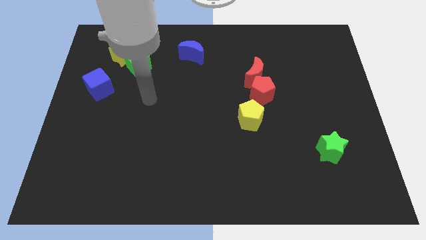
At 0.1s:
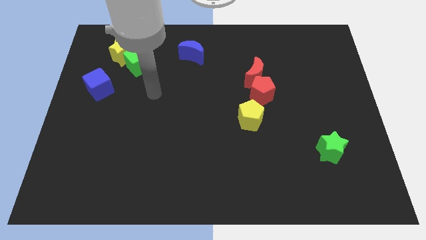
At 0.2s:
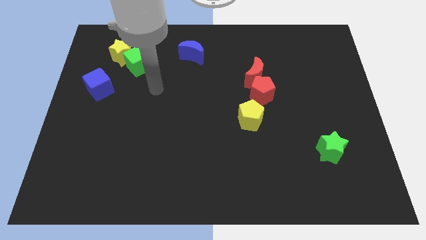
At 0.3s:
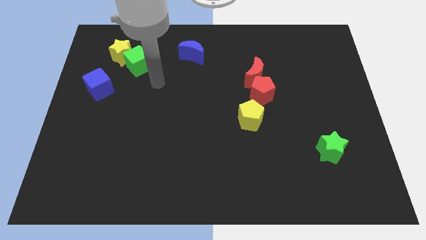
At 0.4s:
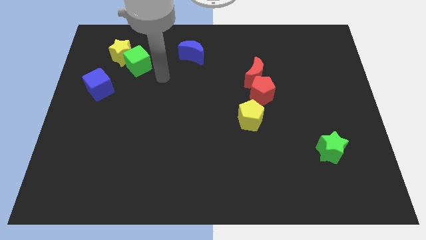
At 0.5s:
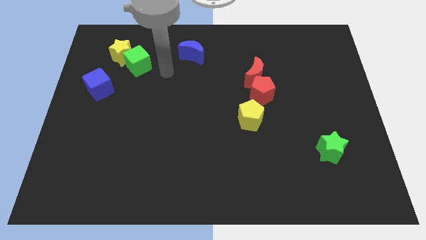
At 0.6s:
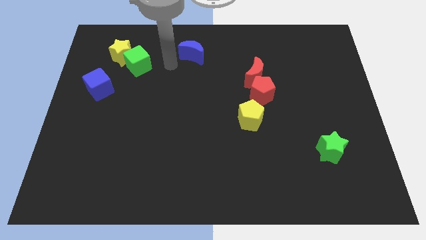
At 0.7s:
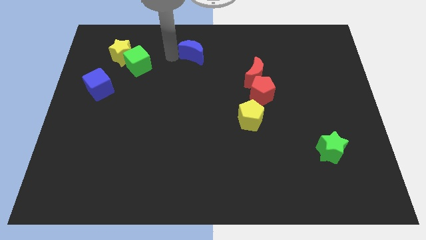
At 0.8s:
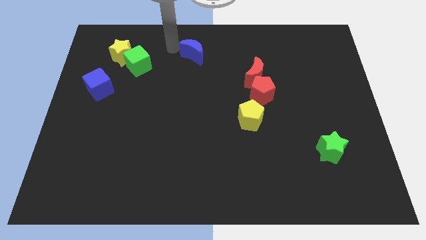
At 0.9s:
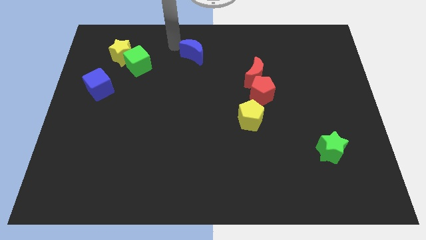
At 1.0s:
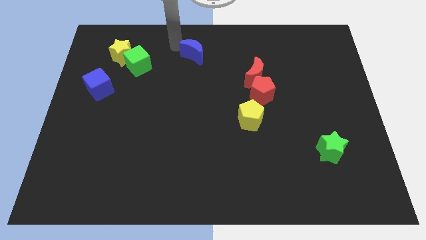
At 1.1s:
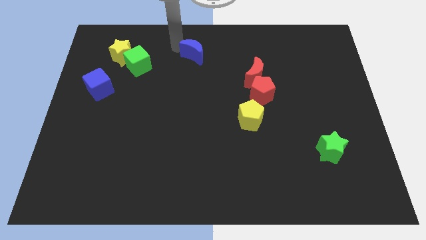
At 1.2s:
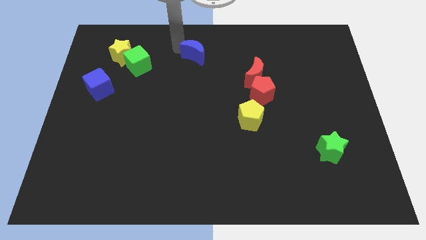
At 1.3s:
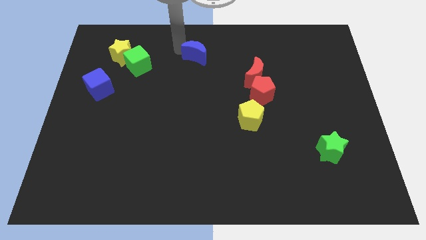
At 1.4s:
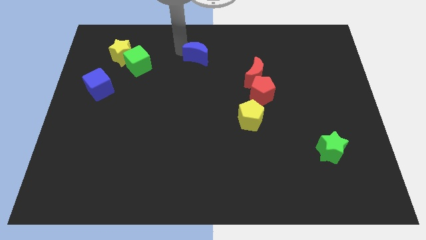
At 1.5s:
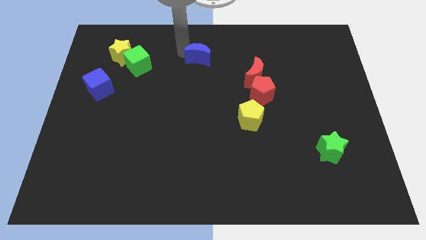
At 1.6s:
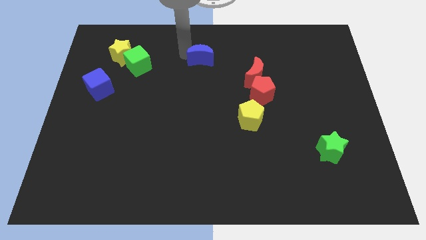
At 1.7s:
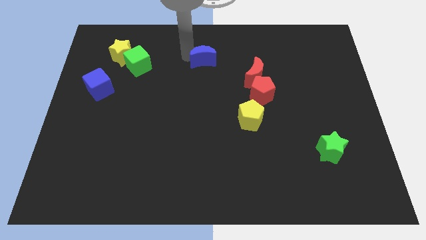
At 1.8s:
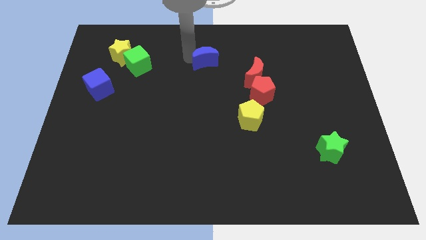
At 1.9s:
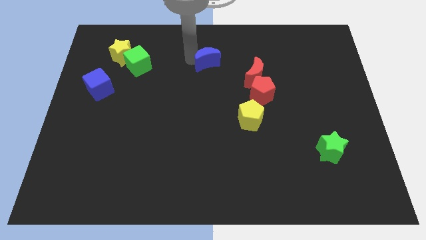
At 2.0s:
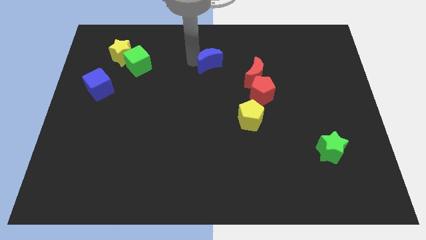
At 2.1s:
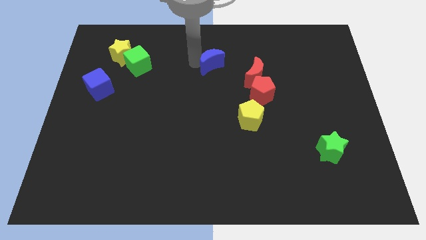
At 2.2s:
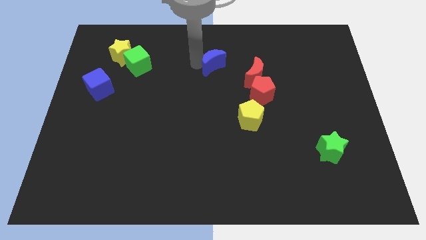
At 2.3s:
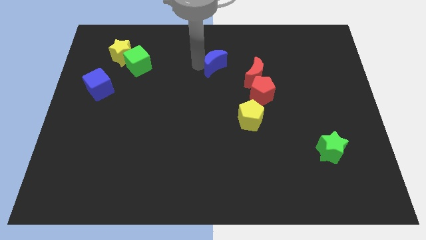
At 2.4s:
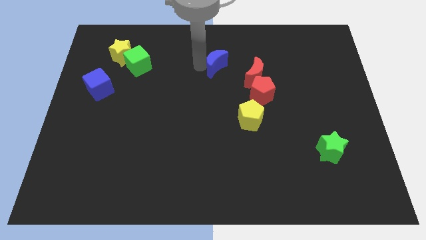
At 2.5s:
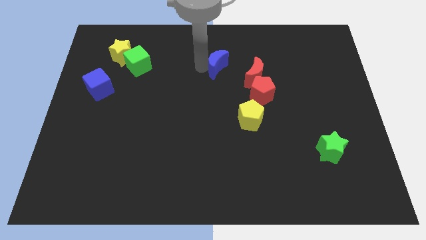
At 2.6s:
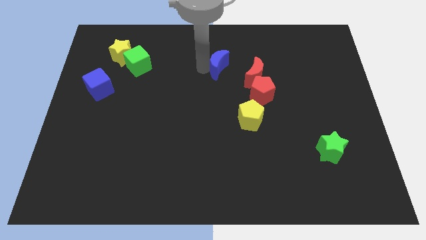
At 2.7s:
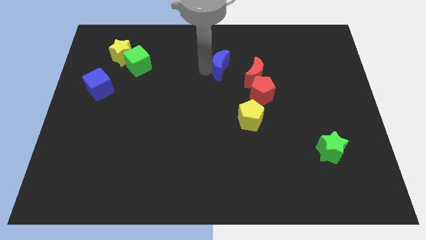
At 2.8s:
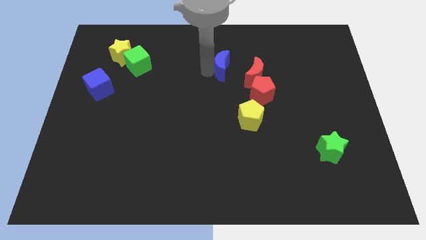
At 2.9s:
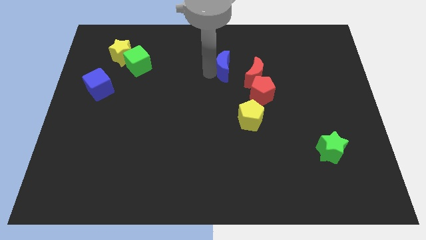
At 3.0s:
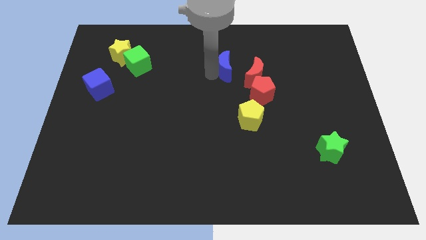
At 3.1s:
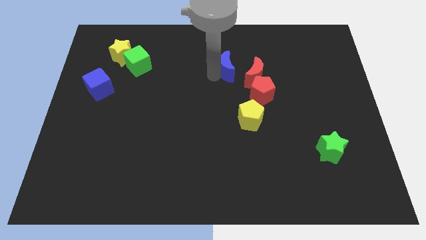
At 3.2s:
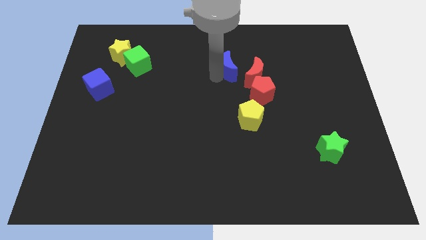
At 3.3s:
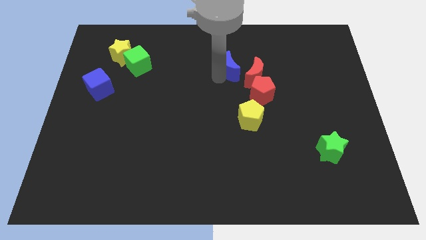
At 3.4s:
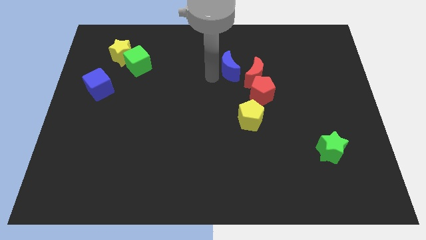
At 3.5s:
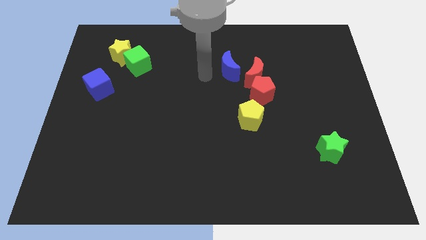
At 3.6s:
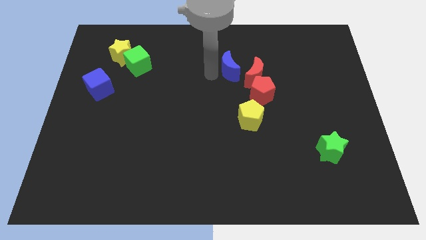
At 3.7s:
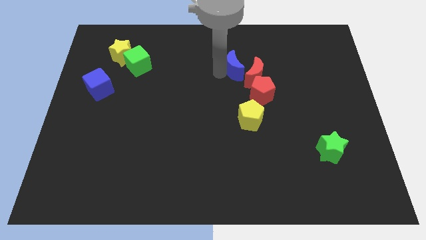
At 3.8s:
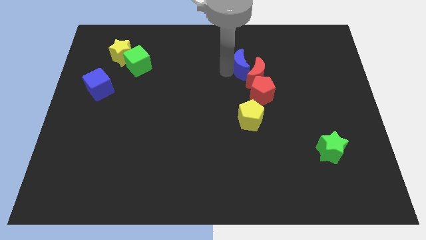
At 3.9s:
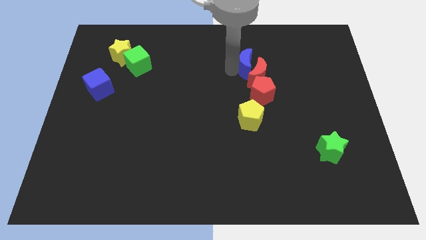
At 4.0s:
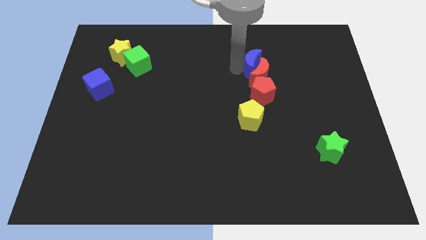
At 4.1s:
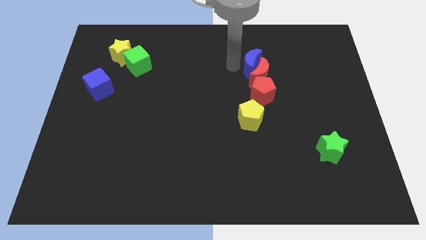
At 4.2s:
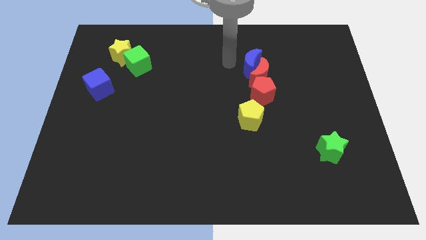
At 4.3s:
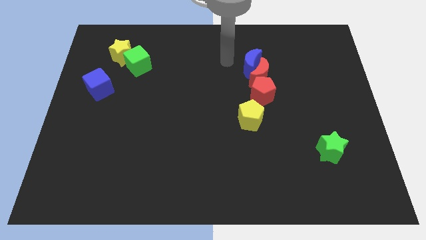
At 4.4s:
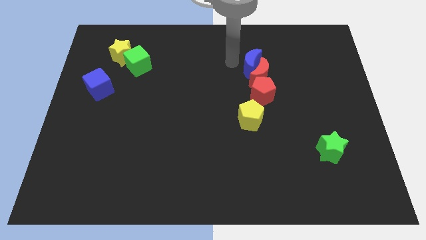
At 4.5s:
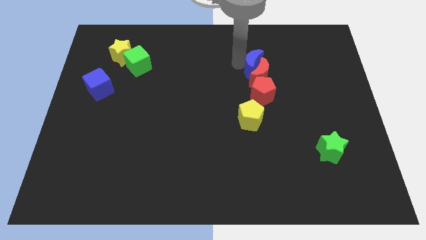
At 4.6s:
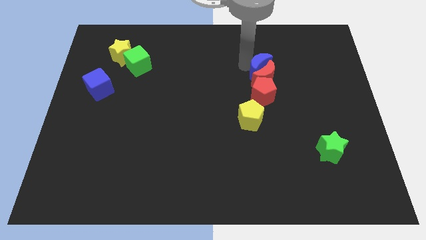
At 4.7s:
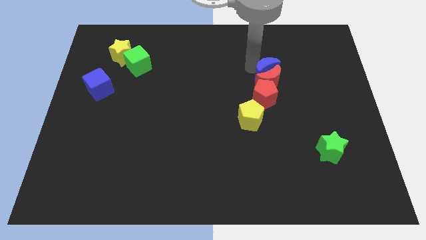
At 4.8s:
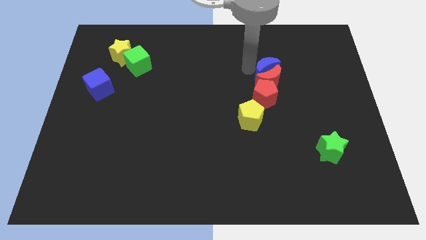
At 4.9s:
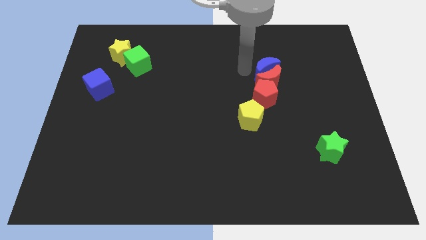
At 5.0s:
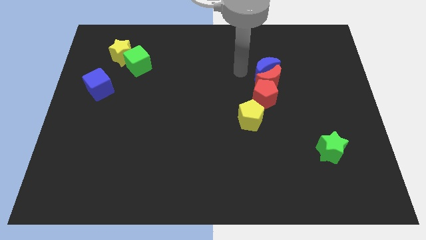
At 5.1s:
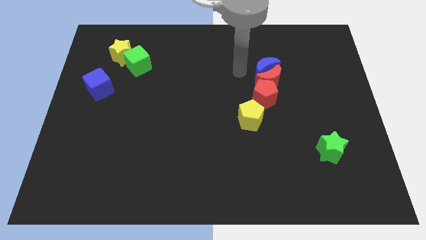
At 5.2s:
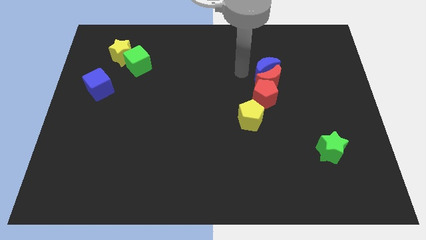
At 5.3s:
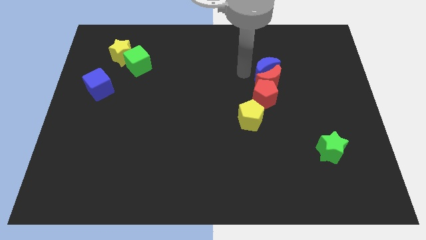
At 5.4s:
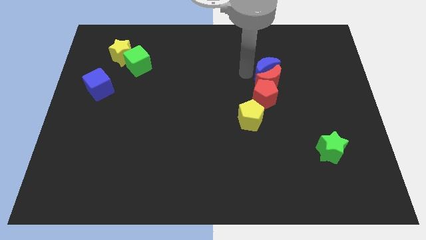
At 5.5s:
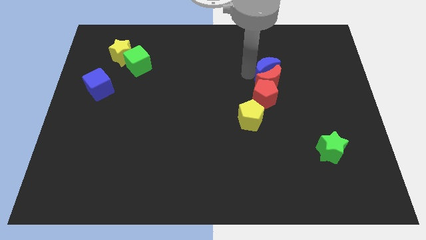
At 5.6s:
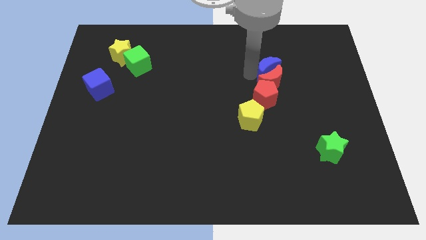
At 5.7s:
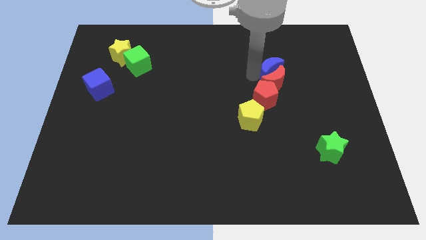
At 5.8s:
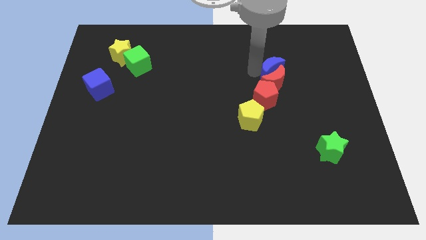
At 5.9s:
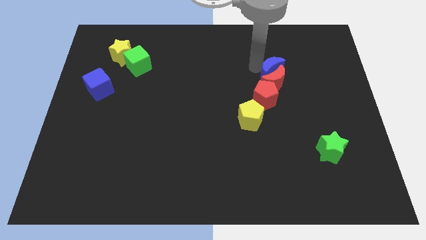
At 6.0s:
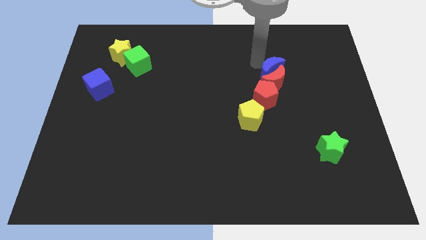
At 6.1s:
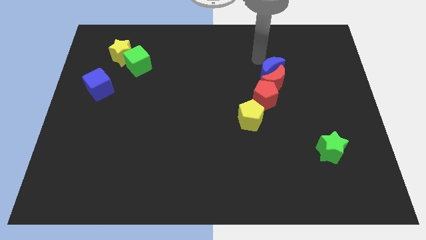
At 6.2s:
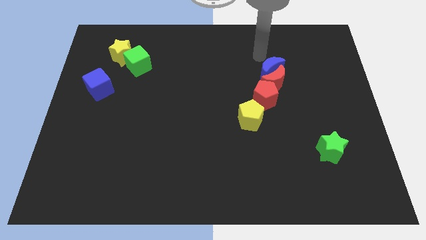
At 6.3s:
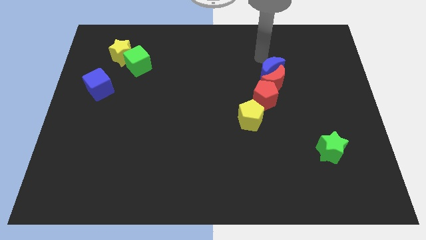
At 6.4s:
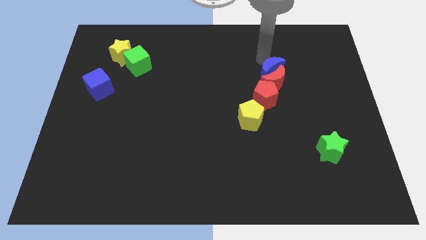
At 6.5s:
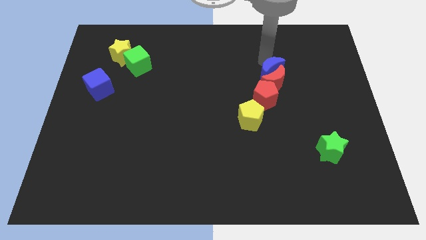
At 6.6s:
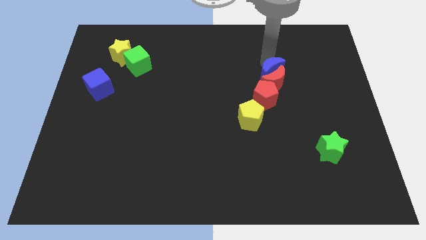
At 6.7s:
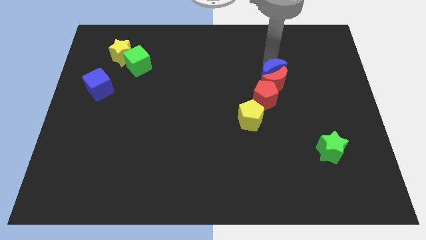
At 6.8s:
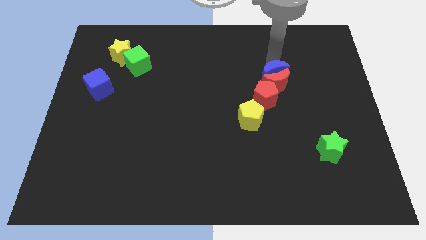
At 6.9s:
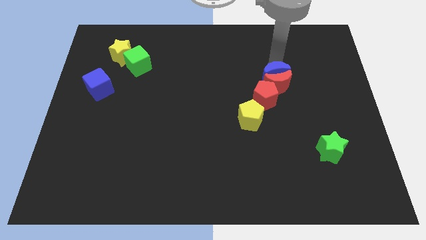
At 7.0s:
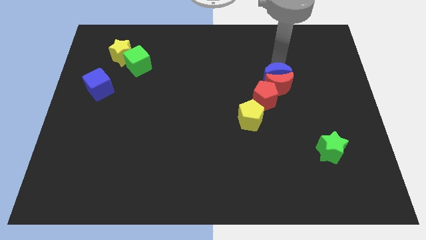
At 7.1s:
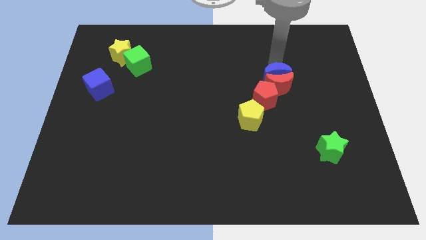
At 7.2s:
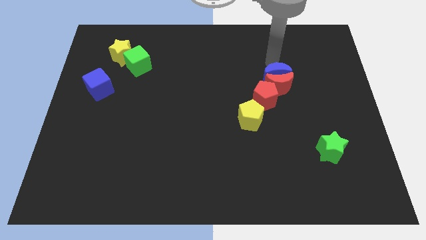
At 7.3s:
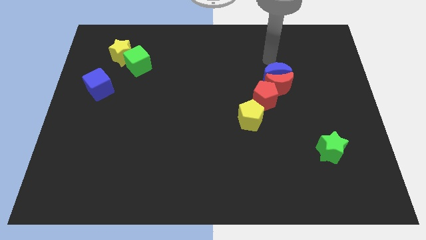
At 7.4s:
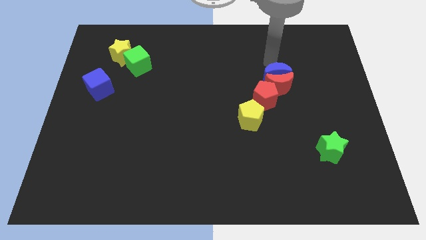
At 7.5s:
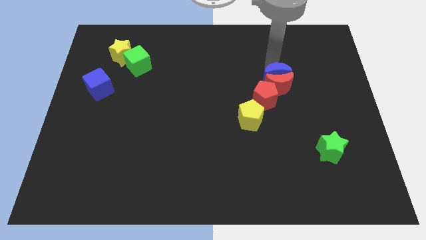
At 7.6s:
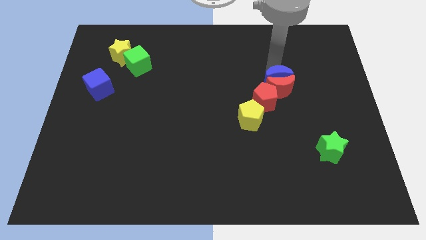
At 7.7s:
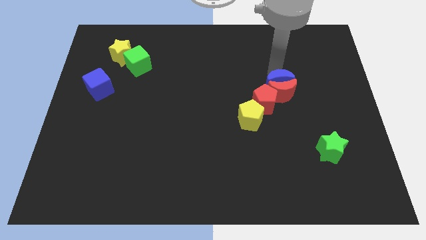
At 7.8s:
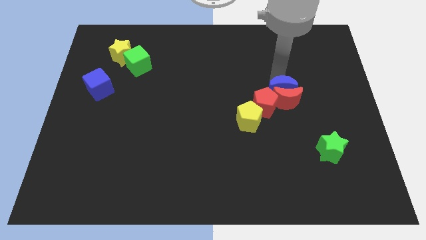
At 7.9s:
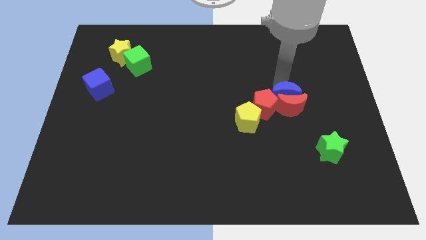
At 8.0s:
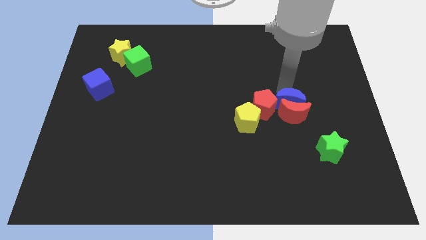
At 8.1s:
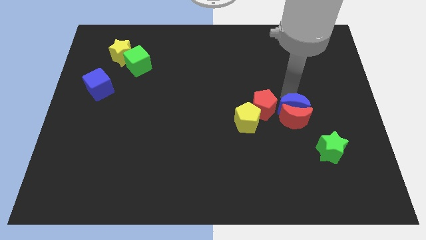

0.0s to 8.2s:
push the blue moon diagonally down and to the right of the red pentagon
